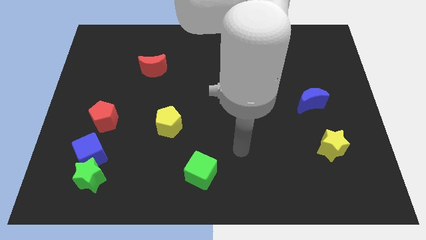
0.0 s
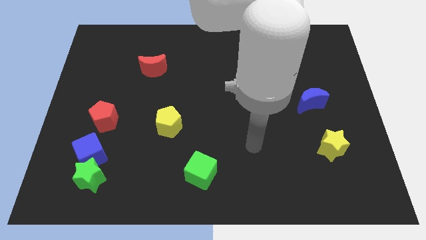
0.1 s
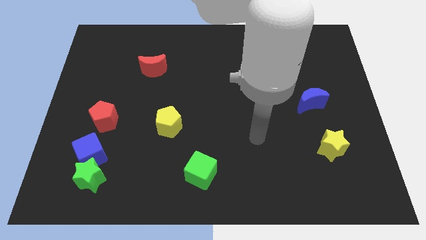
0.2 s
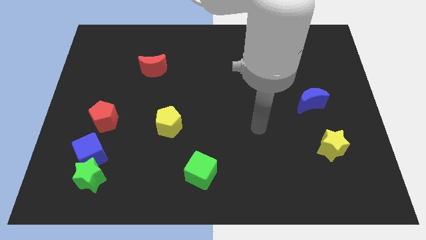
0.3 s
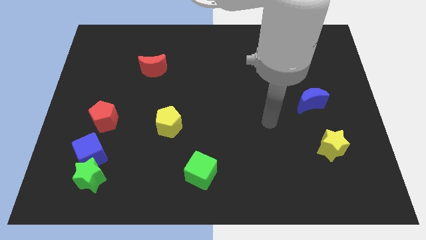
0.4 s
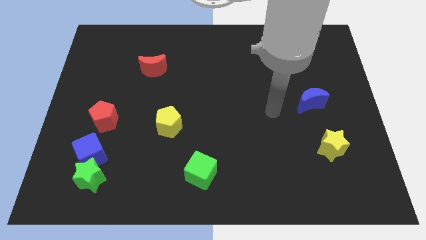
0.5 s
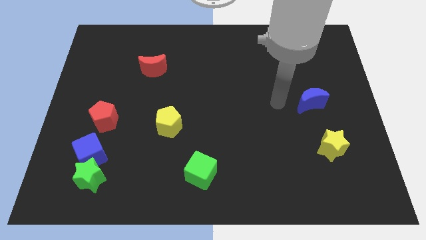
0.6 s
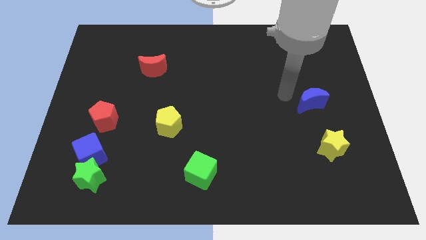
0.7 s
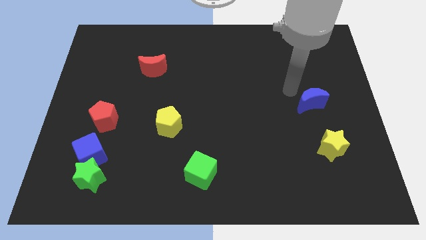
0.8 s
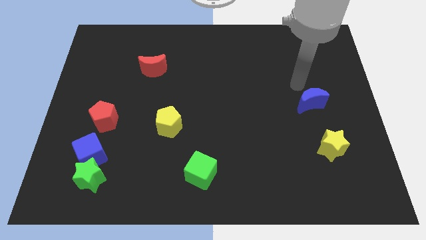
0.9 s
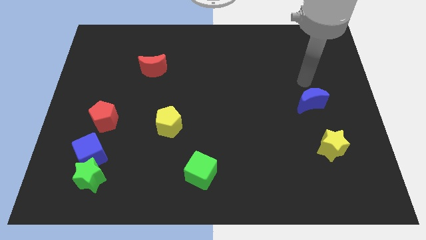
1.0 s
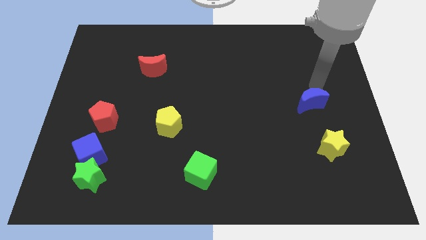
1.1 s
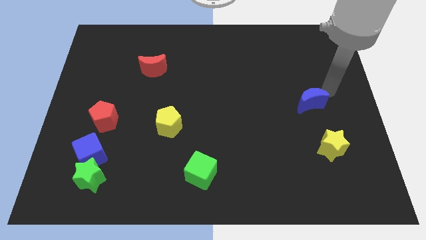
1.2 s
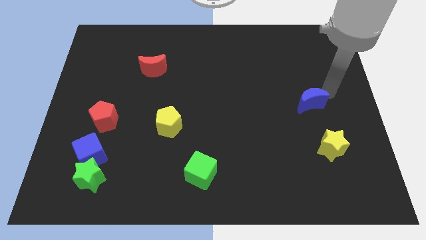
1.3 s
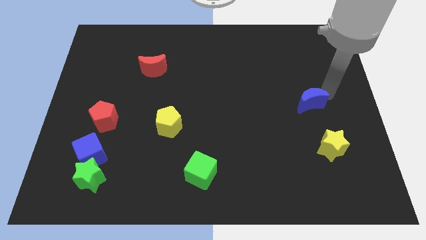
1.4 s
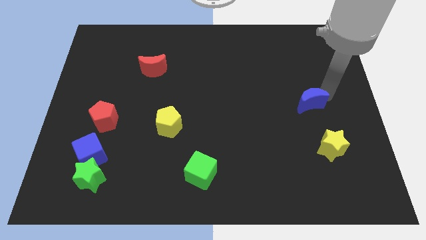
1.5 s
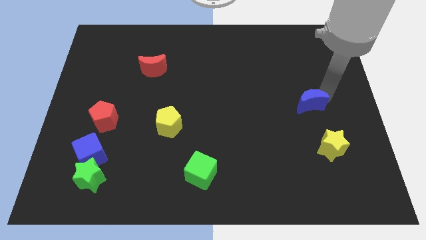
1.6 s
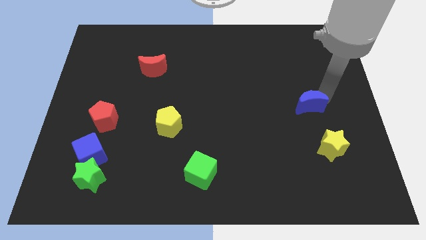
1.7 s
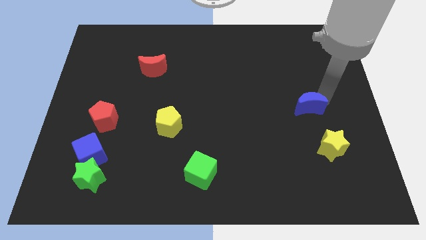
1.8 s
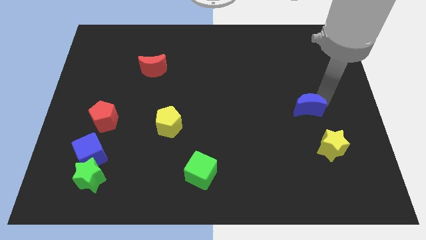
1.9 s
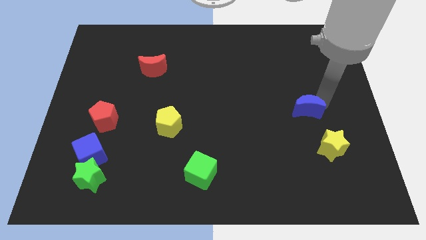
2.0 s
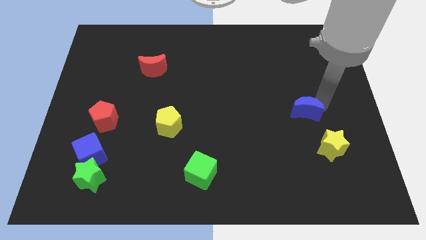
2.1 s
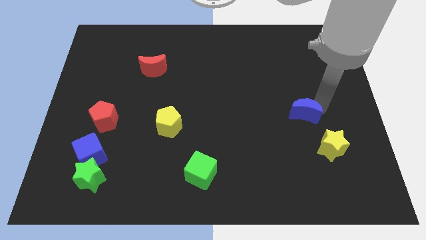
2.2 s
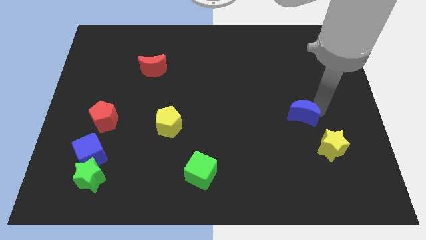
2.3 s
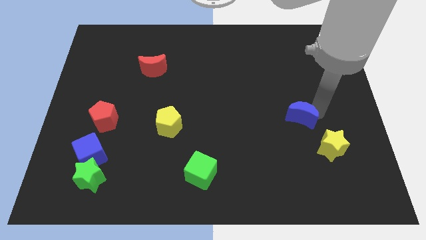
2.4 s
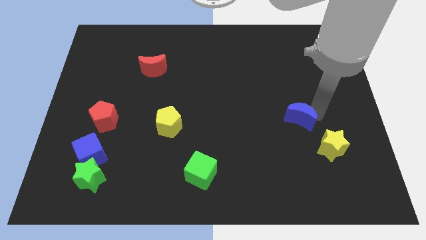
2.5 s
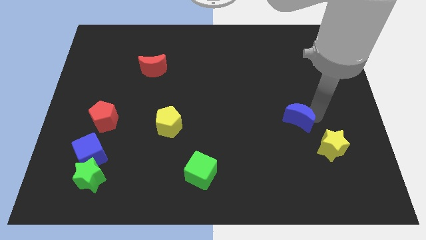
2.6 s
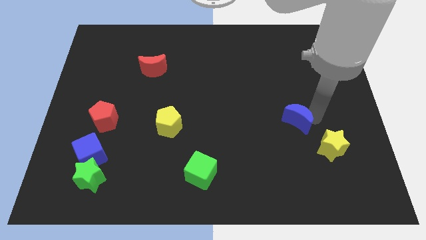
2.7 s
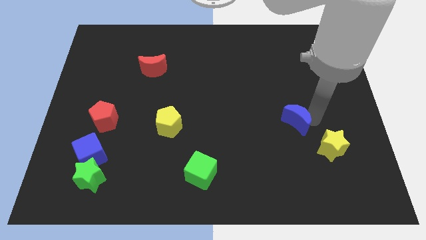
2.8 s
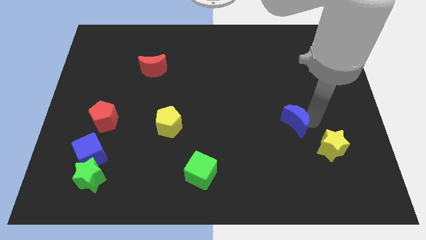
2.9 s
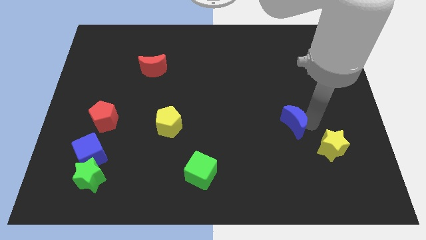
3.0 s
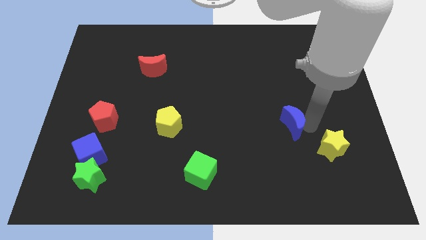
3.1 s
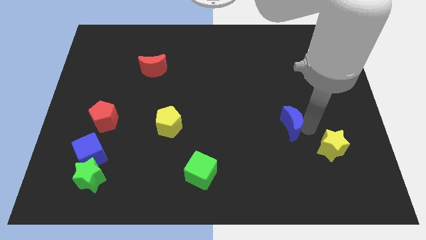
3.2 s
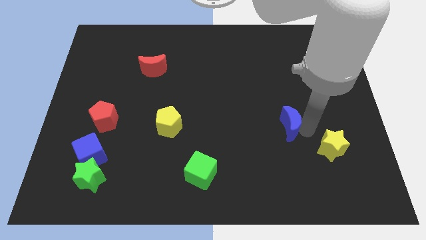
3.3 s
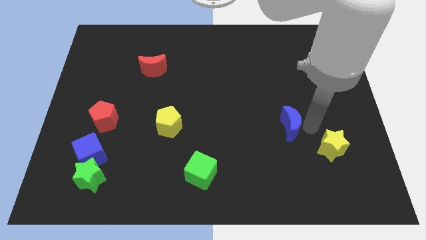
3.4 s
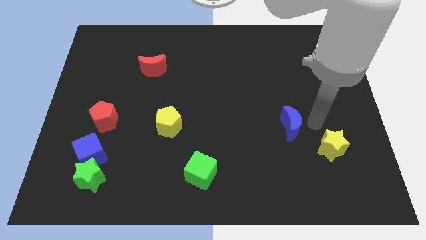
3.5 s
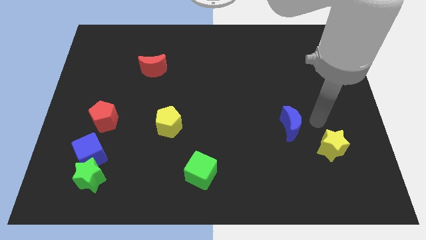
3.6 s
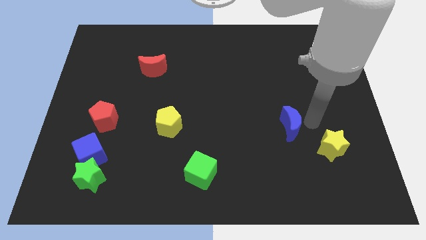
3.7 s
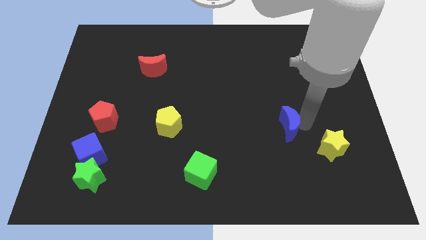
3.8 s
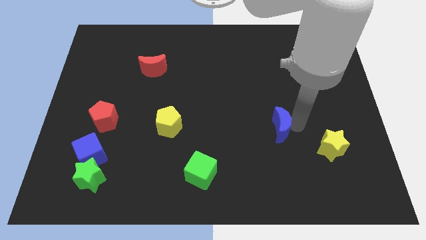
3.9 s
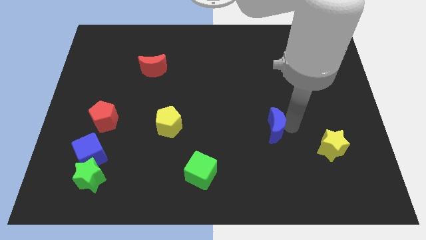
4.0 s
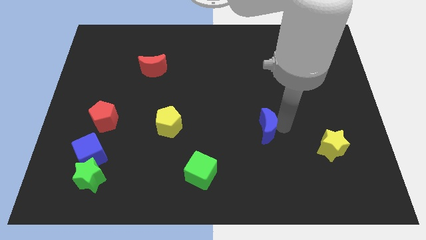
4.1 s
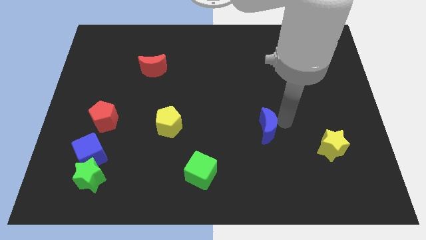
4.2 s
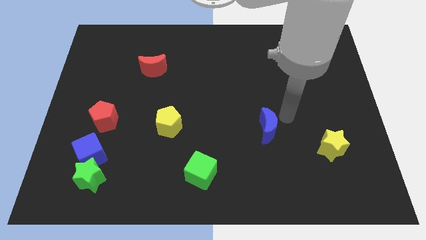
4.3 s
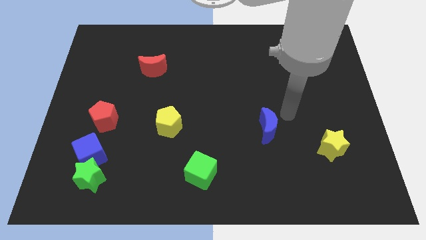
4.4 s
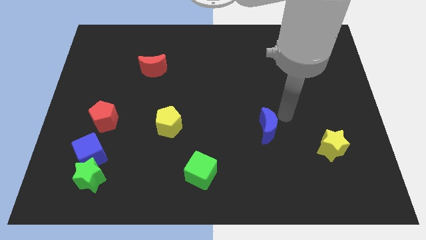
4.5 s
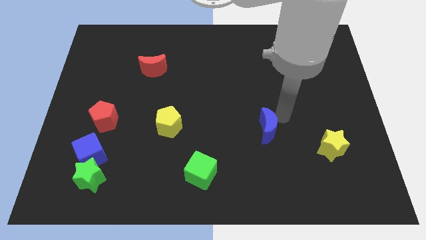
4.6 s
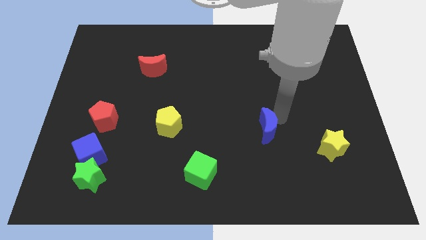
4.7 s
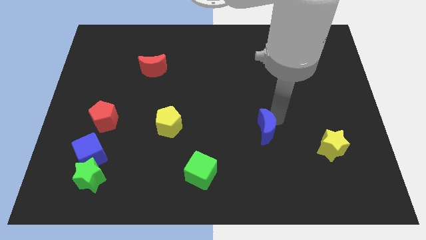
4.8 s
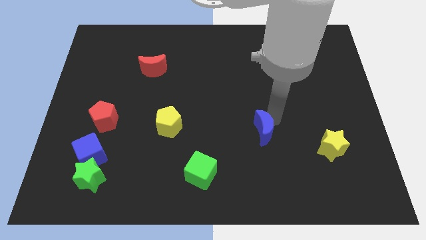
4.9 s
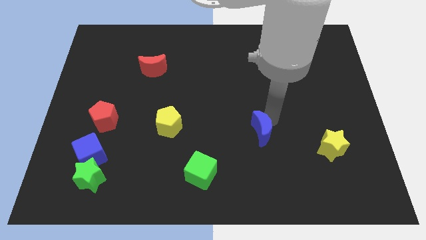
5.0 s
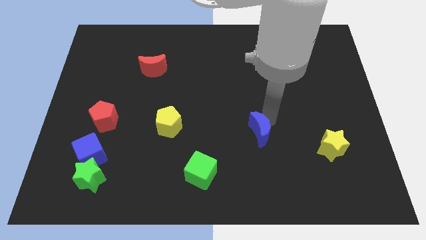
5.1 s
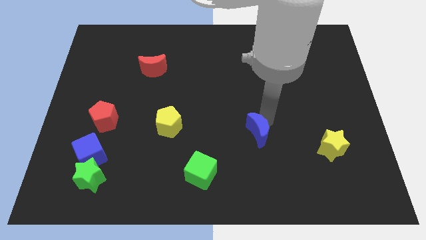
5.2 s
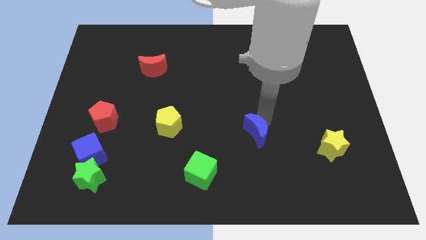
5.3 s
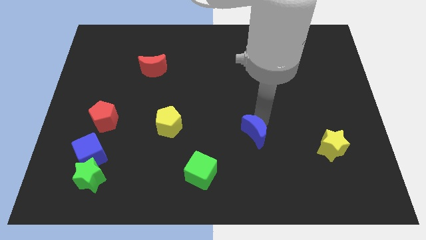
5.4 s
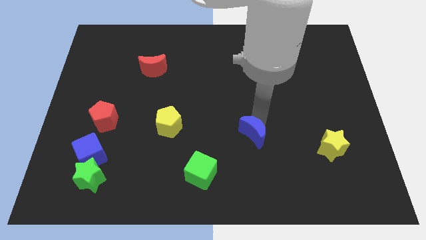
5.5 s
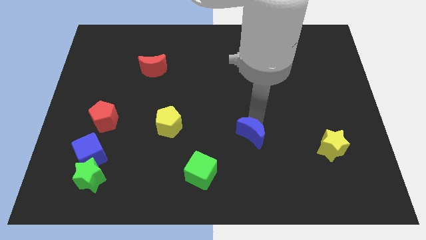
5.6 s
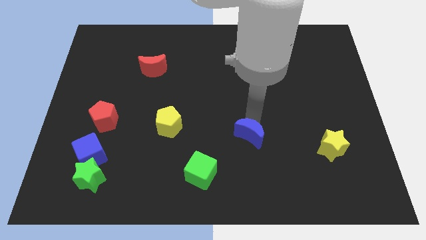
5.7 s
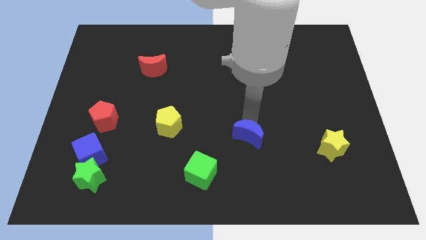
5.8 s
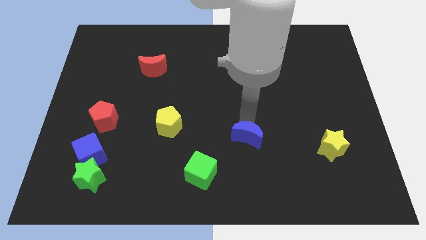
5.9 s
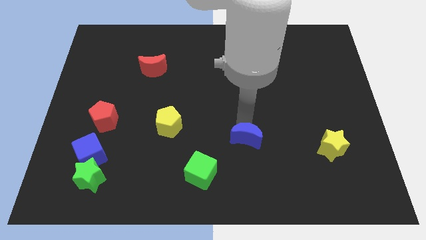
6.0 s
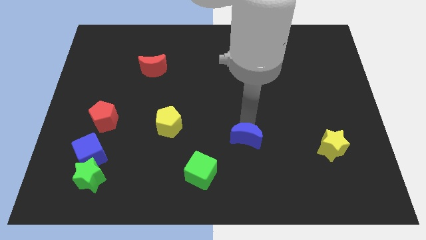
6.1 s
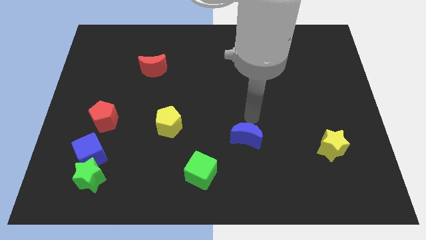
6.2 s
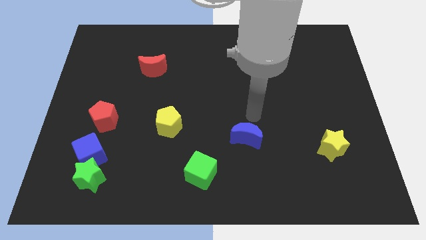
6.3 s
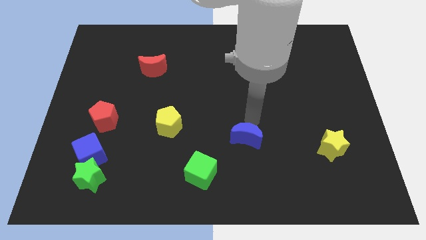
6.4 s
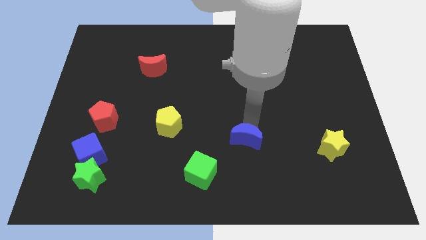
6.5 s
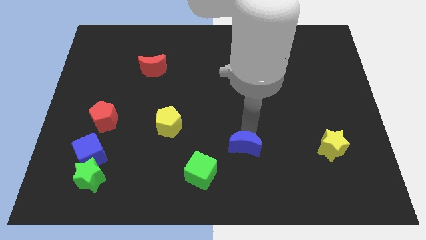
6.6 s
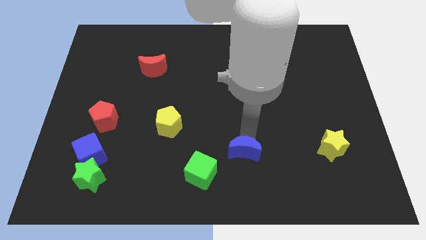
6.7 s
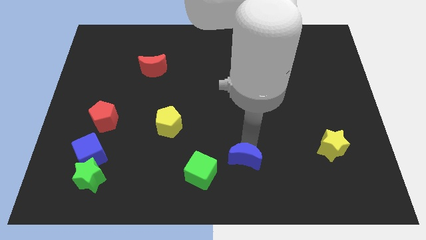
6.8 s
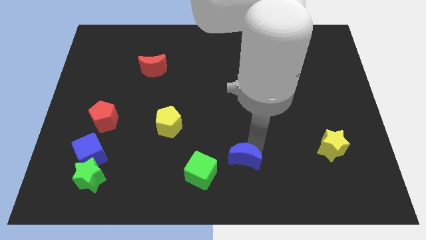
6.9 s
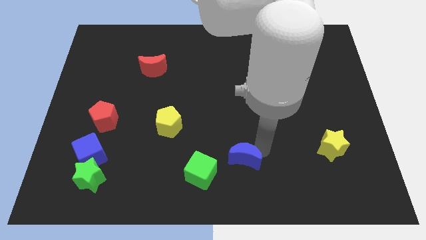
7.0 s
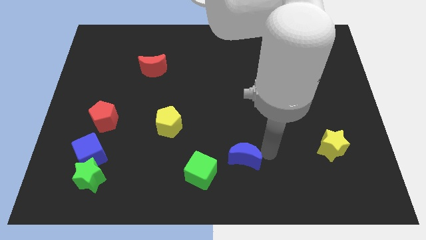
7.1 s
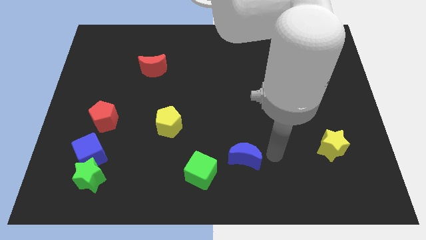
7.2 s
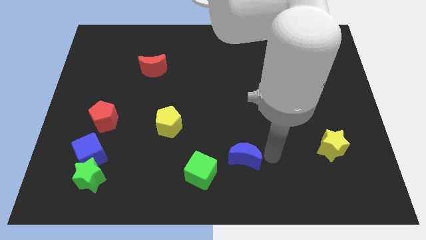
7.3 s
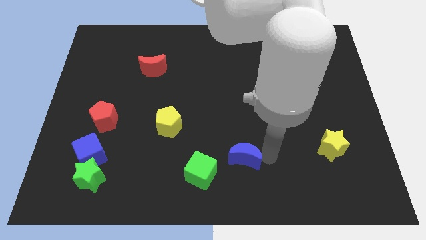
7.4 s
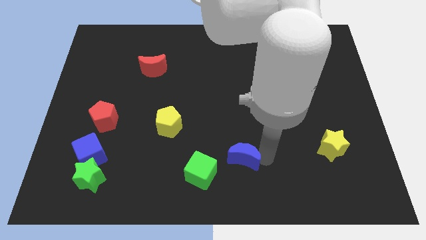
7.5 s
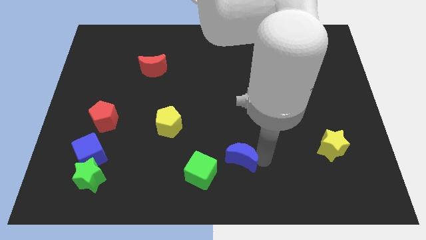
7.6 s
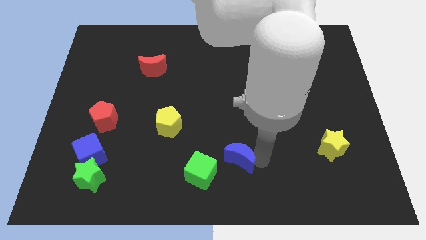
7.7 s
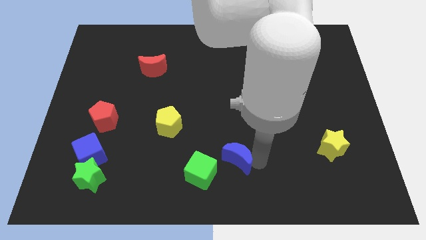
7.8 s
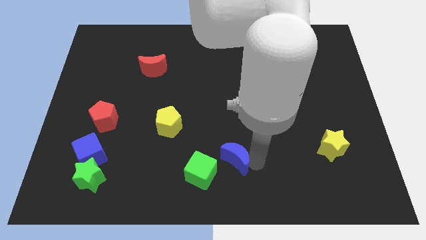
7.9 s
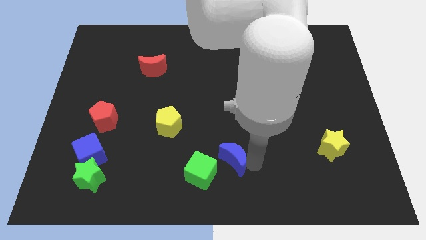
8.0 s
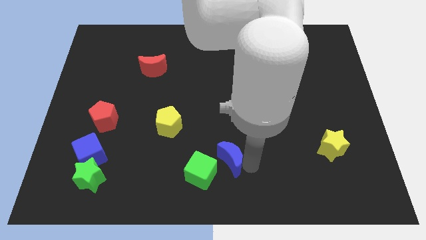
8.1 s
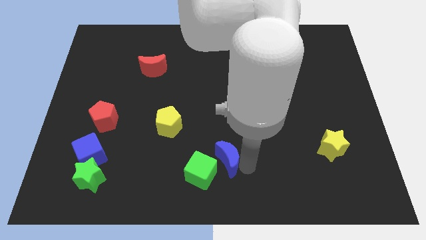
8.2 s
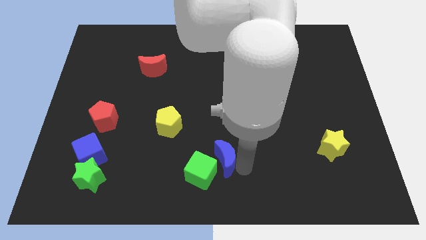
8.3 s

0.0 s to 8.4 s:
slide the blue moon next to the green cube
